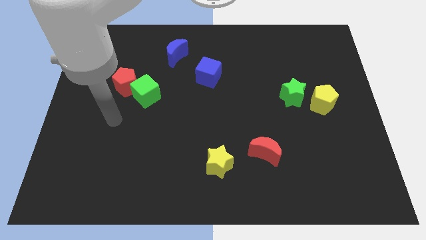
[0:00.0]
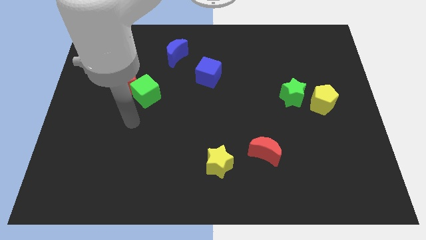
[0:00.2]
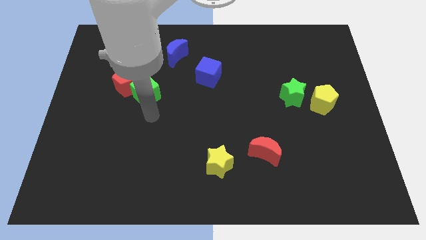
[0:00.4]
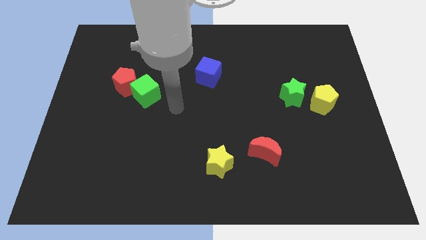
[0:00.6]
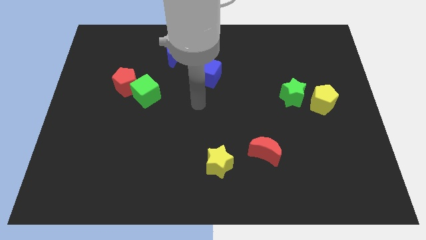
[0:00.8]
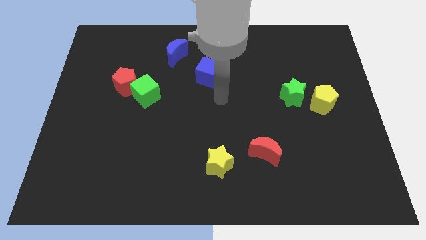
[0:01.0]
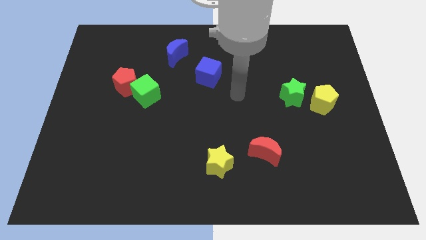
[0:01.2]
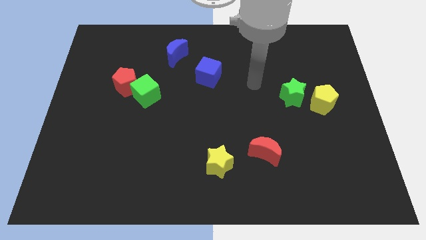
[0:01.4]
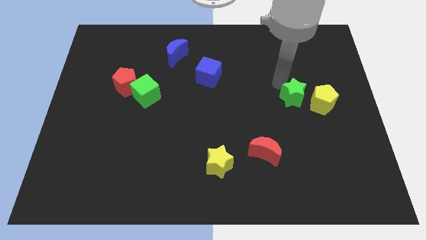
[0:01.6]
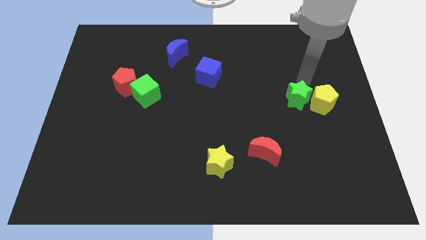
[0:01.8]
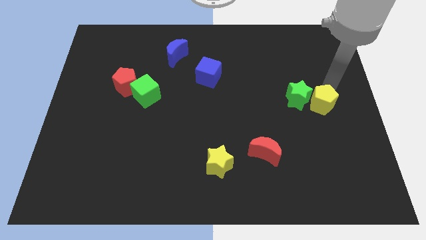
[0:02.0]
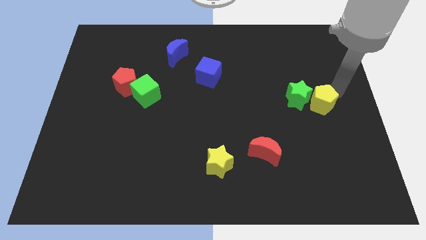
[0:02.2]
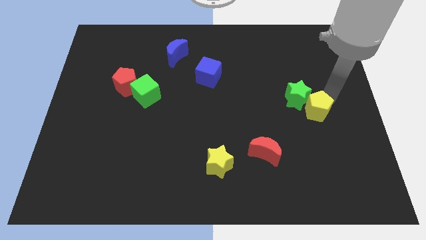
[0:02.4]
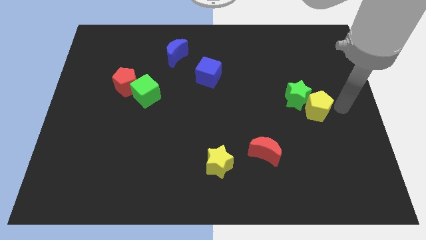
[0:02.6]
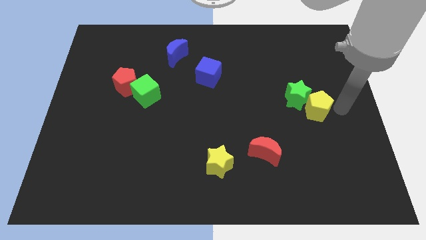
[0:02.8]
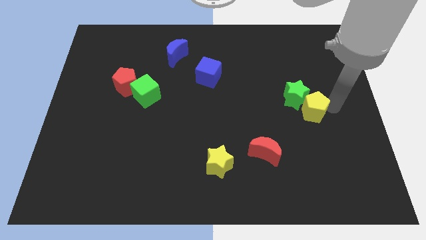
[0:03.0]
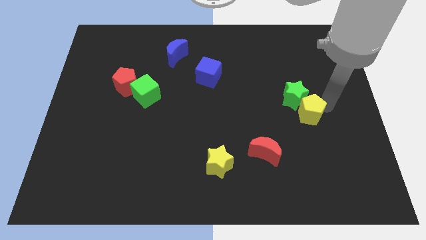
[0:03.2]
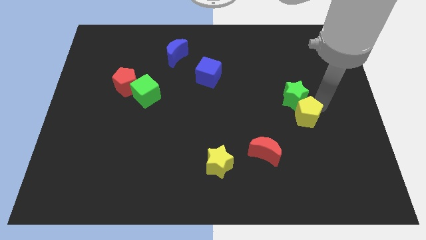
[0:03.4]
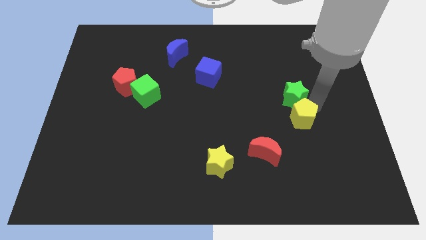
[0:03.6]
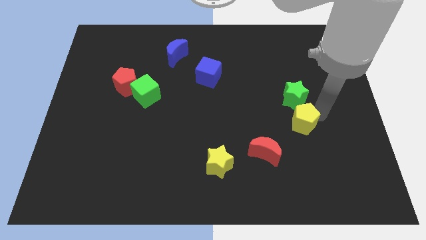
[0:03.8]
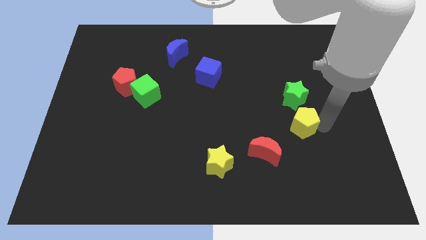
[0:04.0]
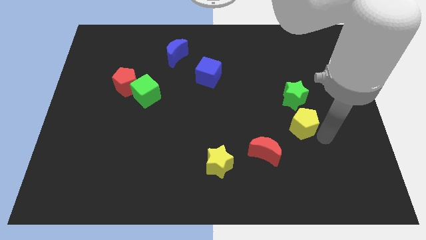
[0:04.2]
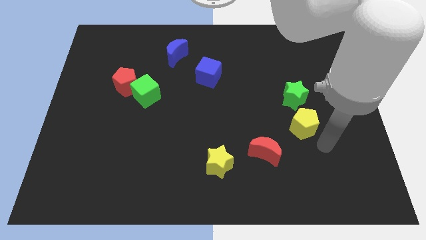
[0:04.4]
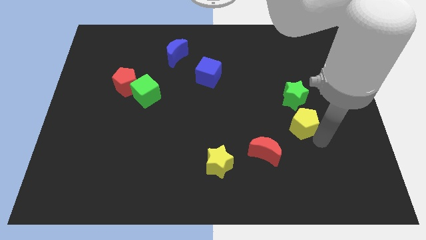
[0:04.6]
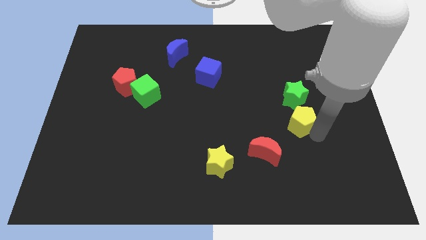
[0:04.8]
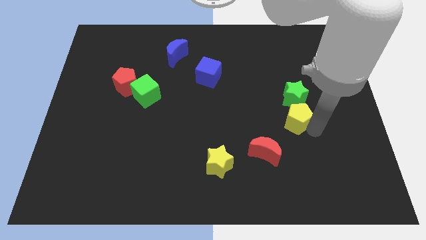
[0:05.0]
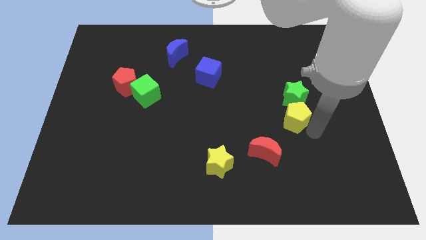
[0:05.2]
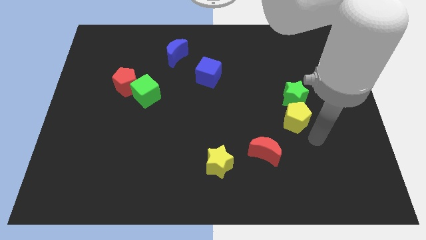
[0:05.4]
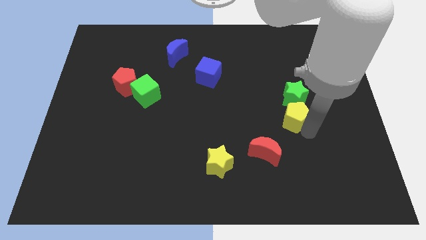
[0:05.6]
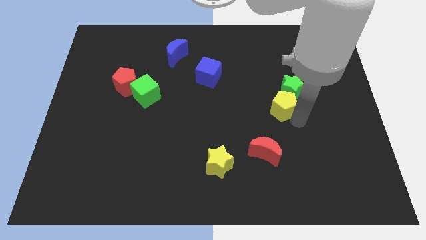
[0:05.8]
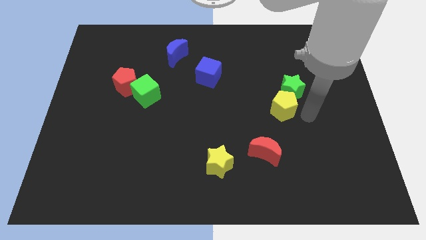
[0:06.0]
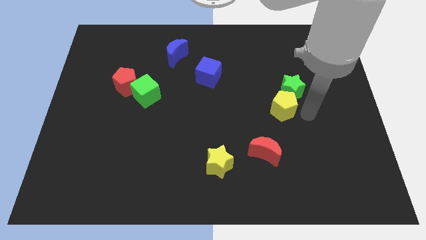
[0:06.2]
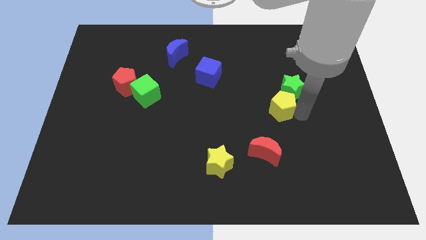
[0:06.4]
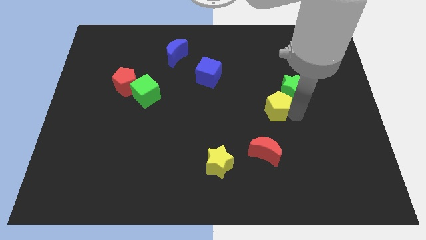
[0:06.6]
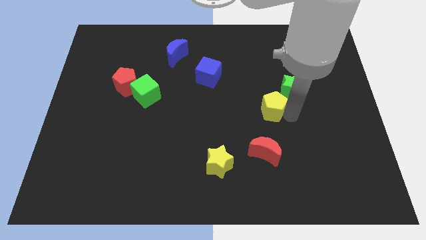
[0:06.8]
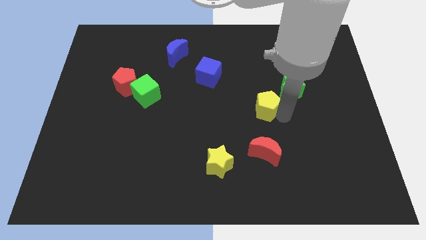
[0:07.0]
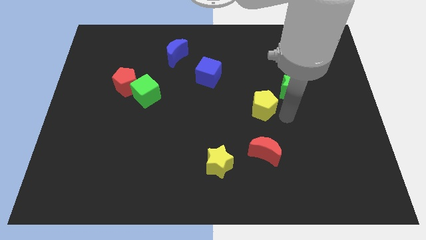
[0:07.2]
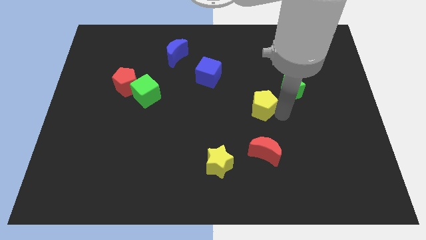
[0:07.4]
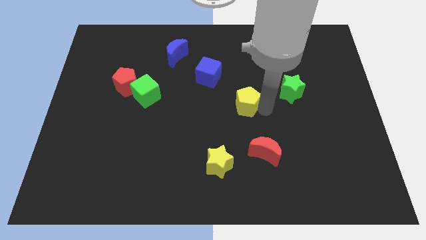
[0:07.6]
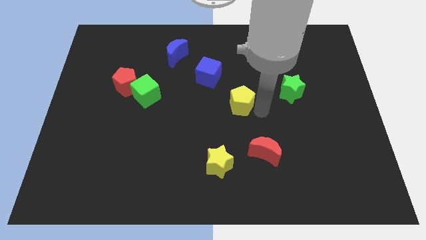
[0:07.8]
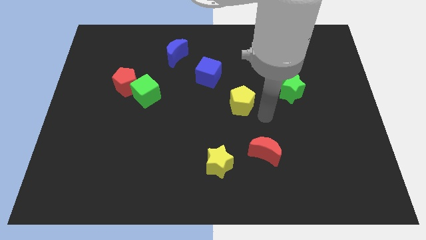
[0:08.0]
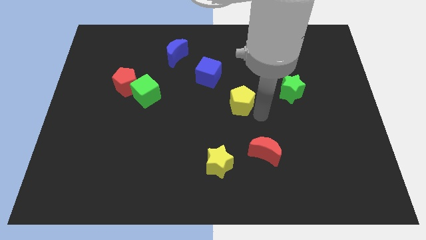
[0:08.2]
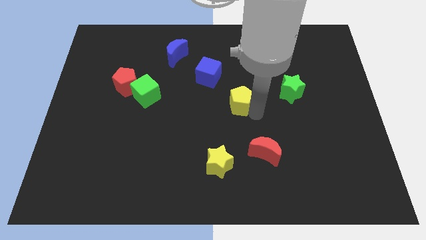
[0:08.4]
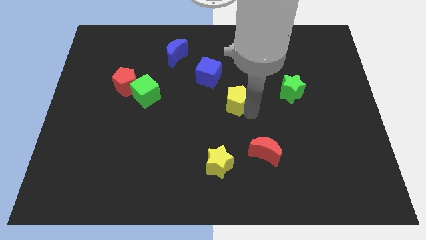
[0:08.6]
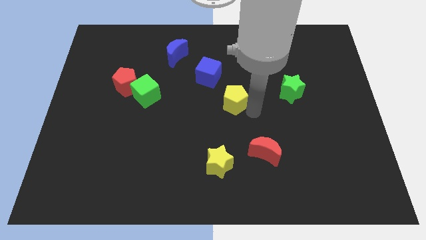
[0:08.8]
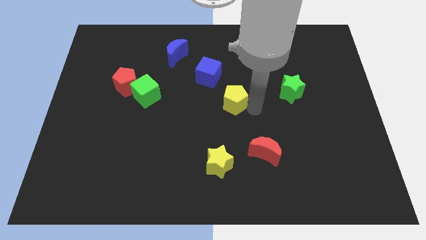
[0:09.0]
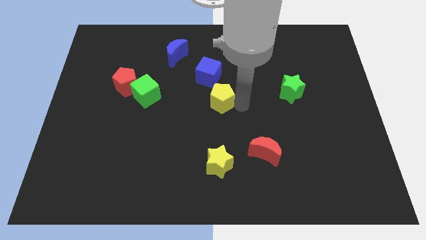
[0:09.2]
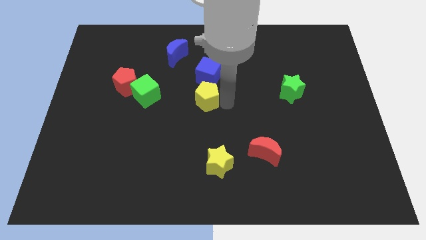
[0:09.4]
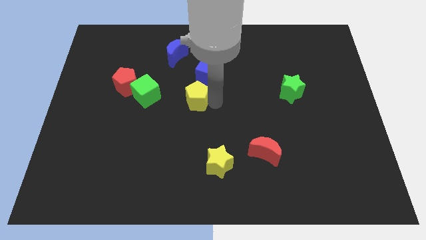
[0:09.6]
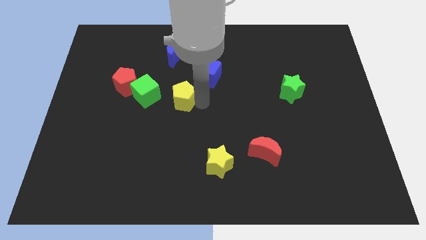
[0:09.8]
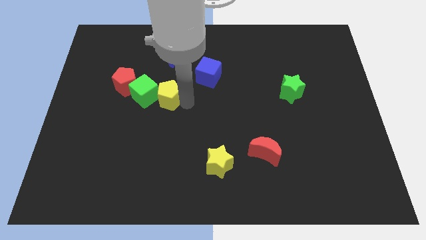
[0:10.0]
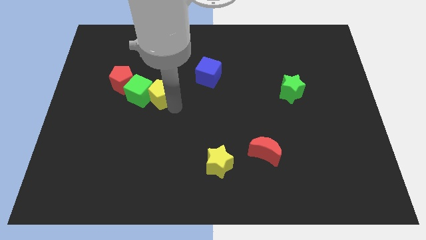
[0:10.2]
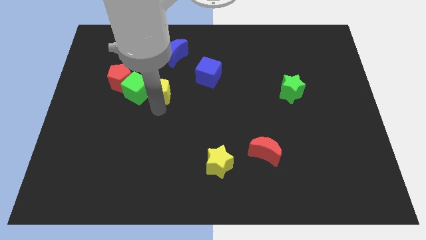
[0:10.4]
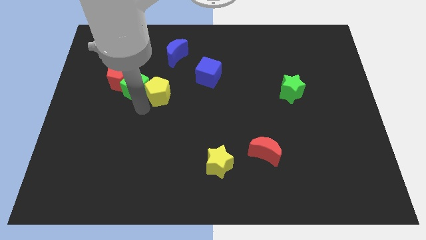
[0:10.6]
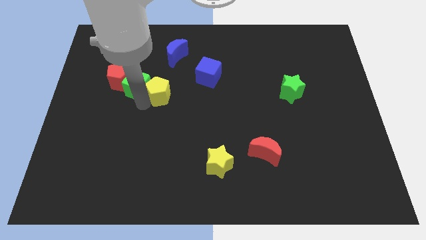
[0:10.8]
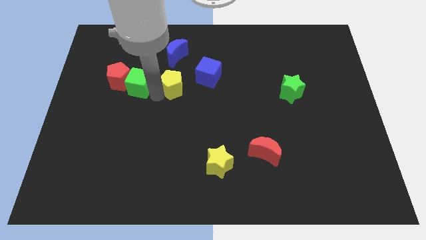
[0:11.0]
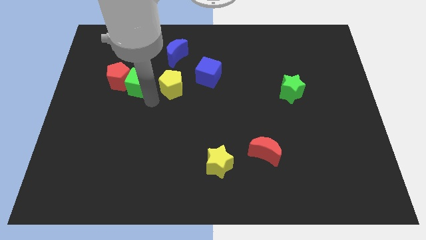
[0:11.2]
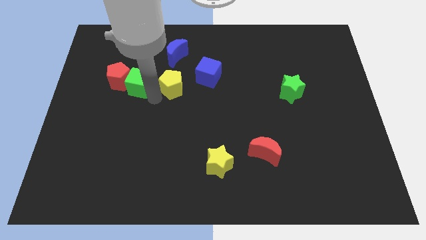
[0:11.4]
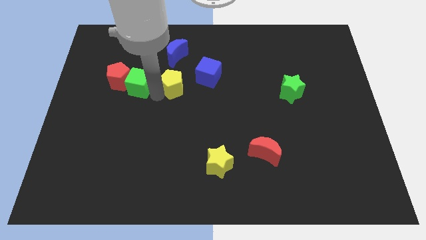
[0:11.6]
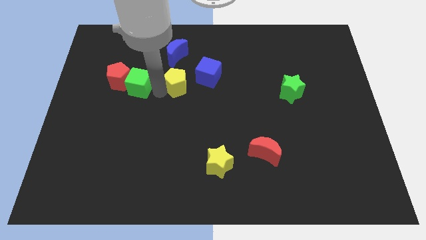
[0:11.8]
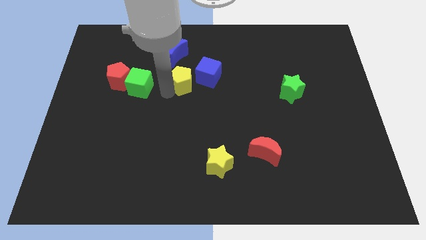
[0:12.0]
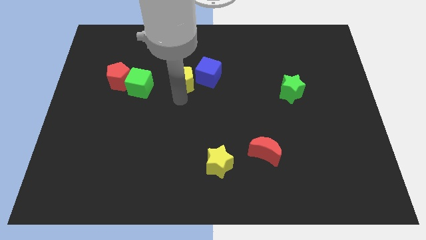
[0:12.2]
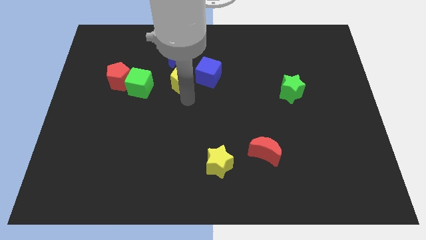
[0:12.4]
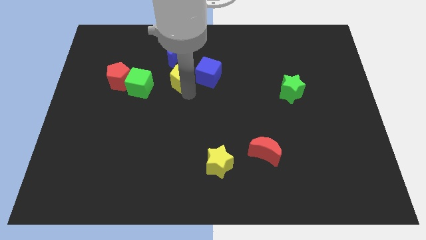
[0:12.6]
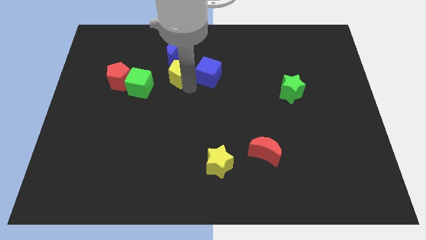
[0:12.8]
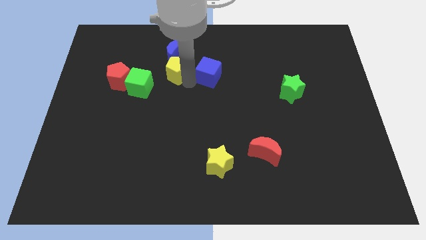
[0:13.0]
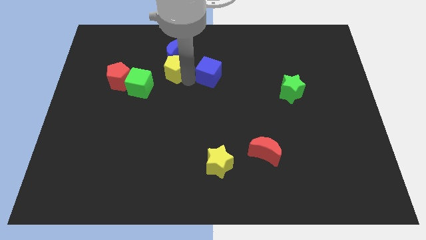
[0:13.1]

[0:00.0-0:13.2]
move the yellow pentagon next to the blue moon

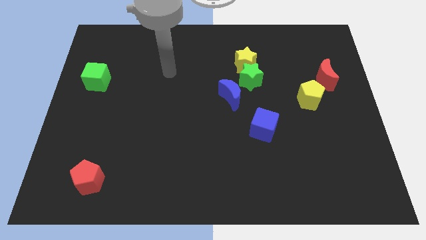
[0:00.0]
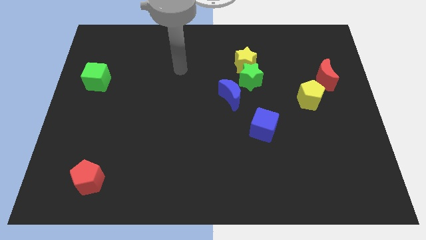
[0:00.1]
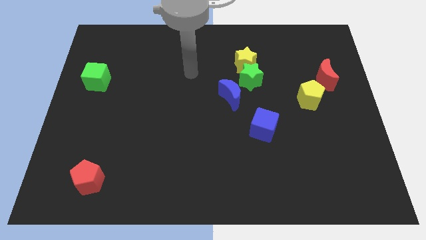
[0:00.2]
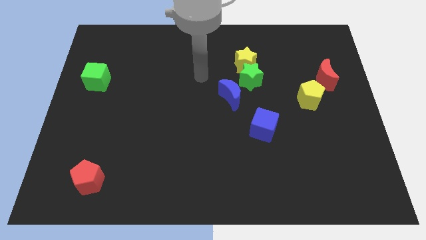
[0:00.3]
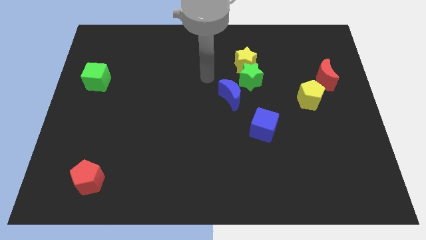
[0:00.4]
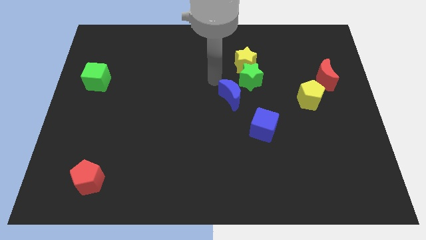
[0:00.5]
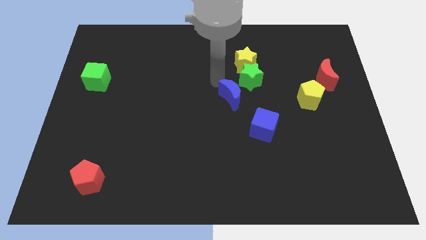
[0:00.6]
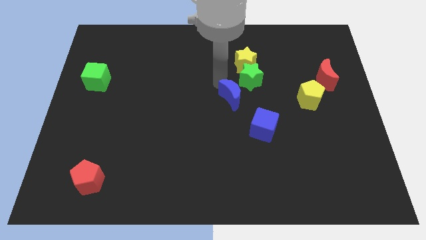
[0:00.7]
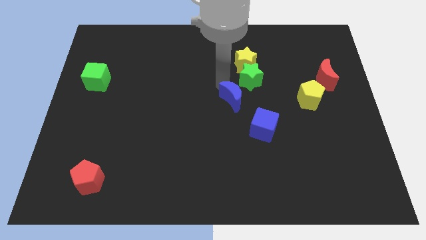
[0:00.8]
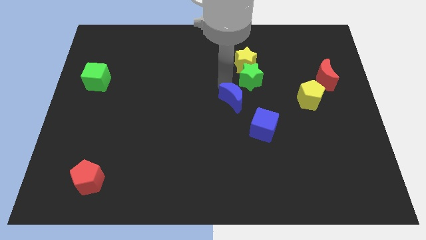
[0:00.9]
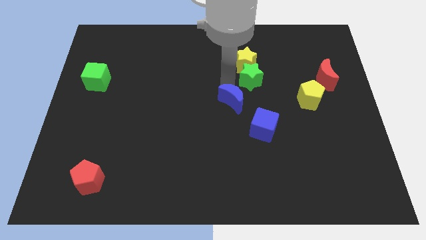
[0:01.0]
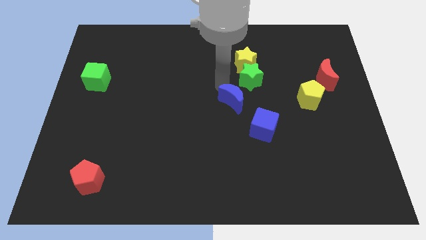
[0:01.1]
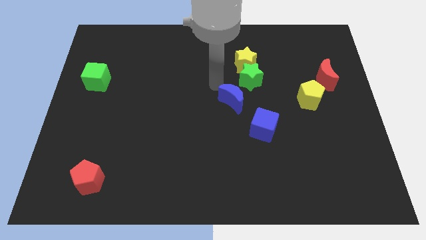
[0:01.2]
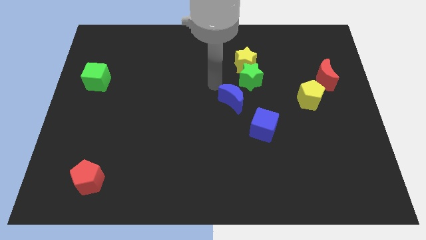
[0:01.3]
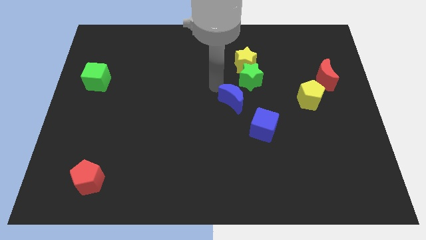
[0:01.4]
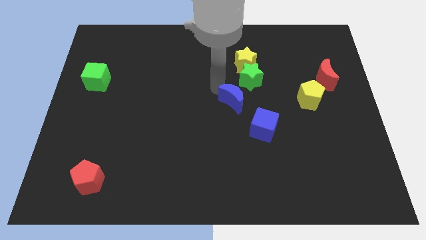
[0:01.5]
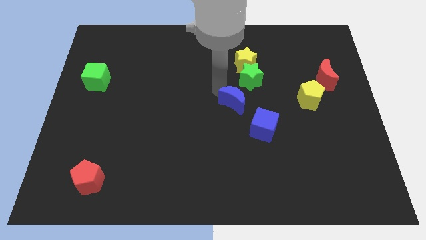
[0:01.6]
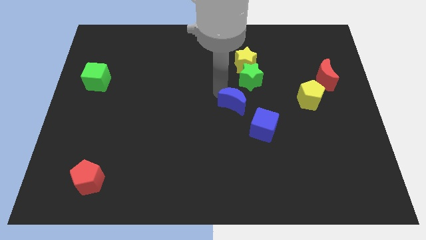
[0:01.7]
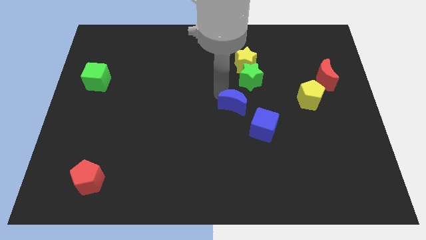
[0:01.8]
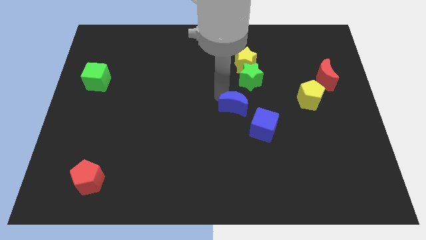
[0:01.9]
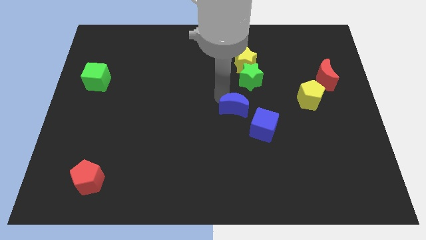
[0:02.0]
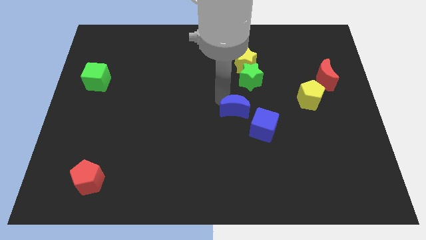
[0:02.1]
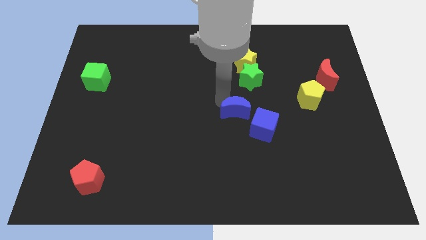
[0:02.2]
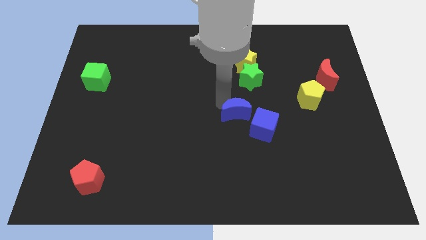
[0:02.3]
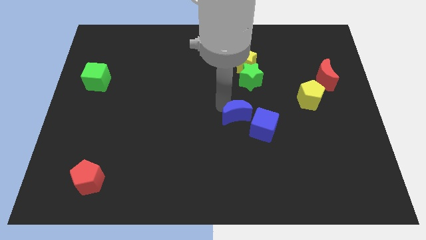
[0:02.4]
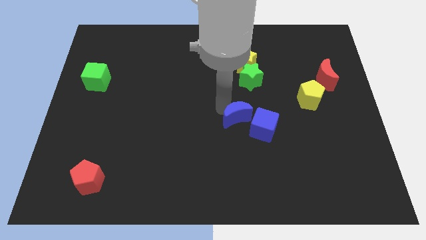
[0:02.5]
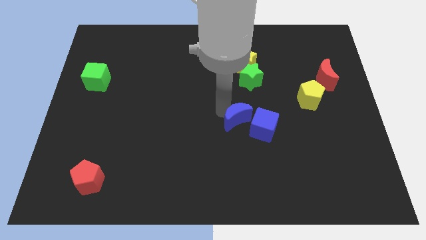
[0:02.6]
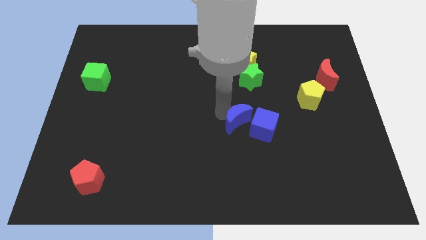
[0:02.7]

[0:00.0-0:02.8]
push the blue moon next to the blue cube
